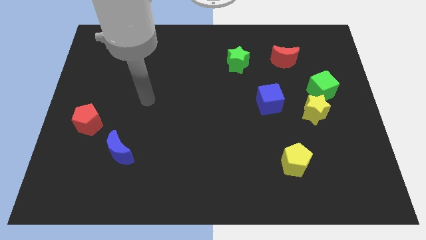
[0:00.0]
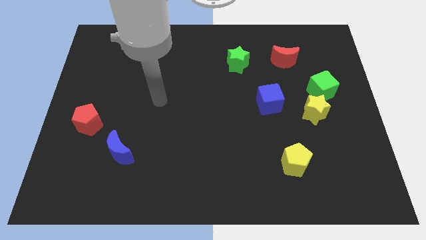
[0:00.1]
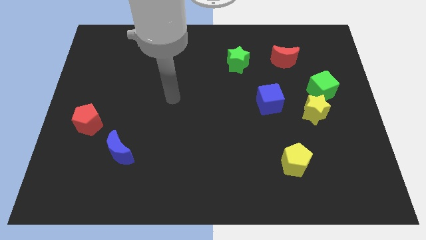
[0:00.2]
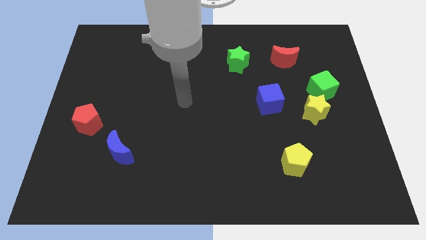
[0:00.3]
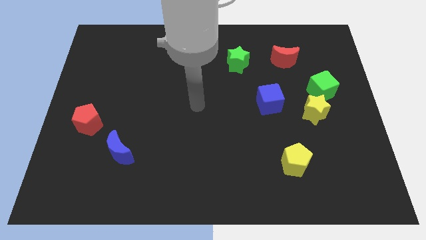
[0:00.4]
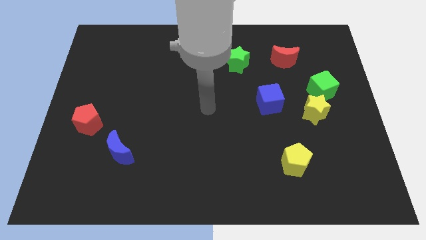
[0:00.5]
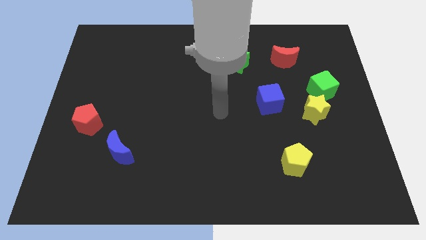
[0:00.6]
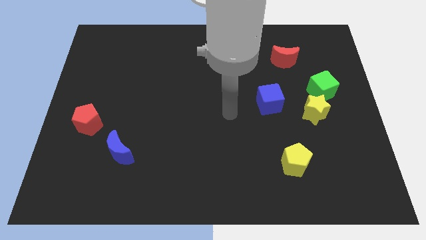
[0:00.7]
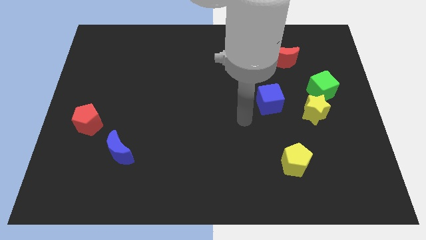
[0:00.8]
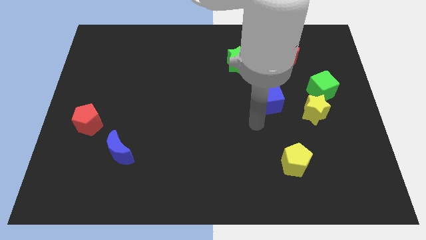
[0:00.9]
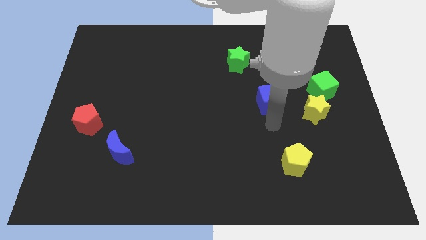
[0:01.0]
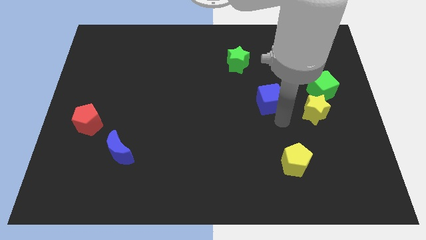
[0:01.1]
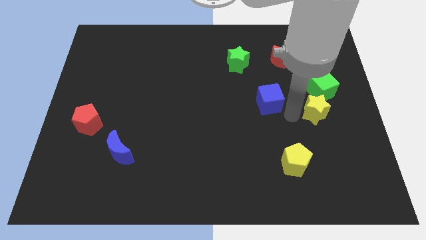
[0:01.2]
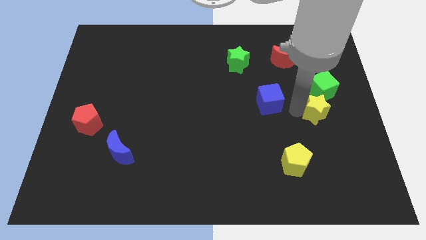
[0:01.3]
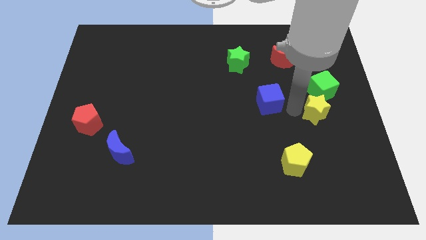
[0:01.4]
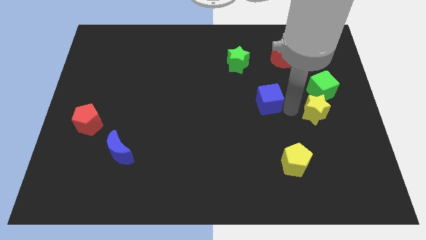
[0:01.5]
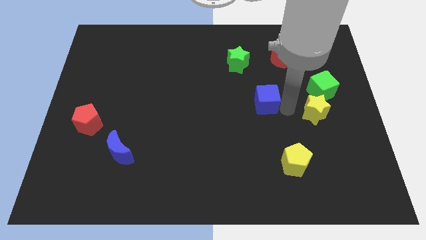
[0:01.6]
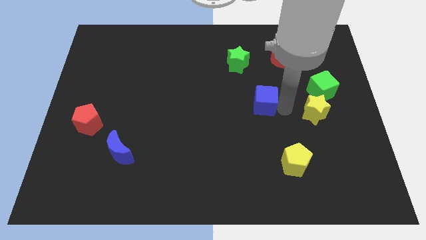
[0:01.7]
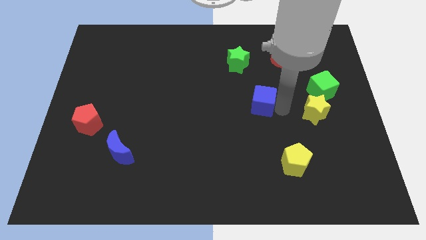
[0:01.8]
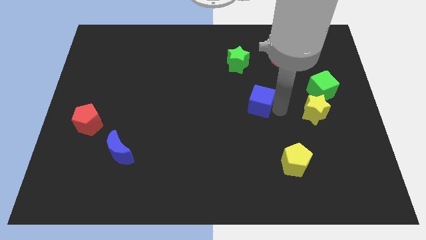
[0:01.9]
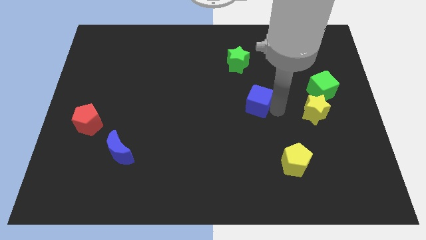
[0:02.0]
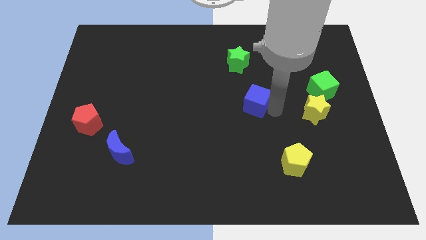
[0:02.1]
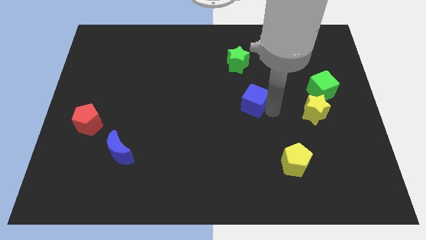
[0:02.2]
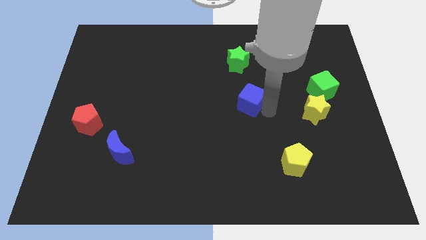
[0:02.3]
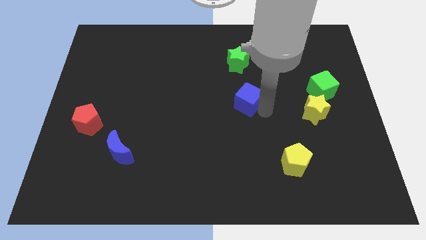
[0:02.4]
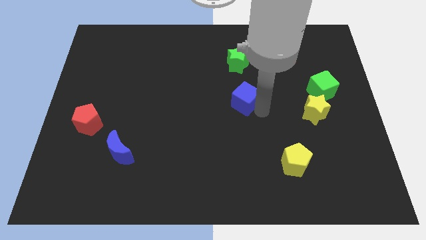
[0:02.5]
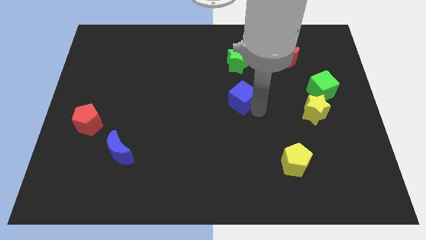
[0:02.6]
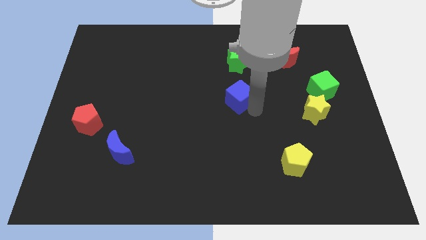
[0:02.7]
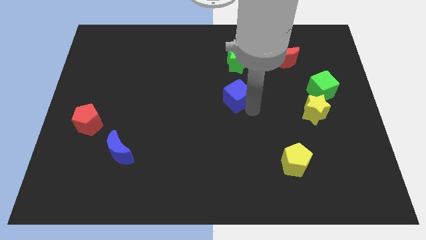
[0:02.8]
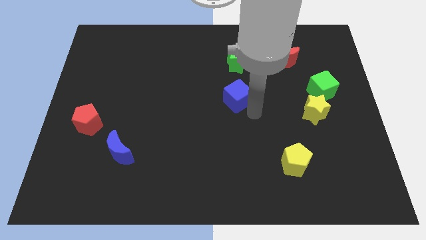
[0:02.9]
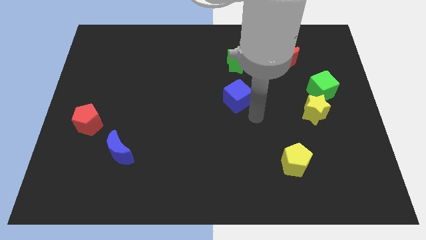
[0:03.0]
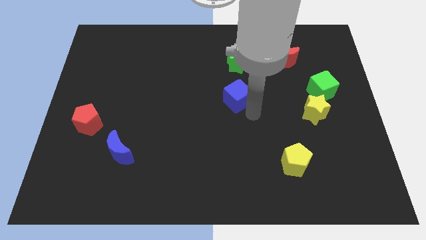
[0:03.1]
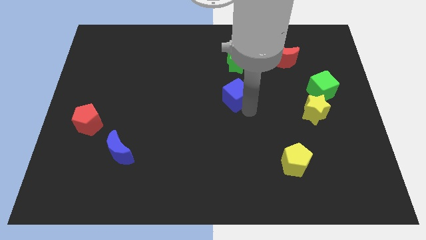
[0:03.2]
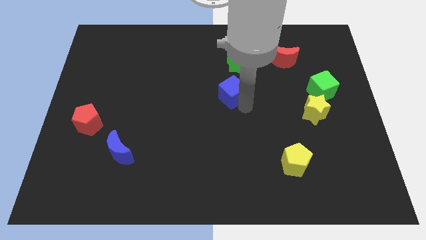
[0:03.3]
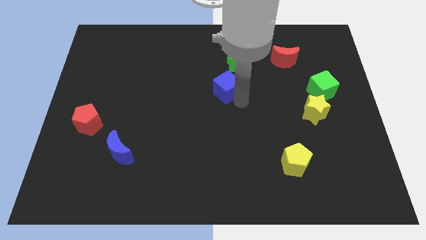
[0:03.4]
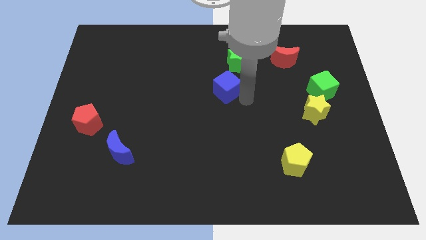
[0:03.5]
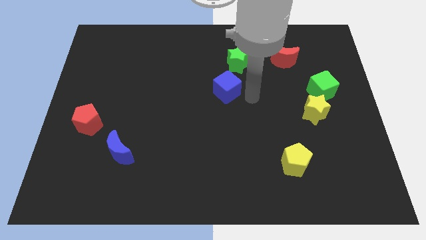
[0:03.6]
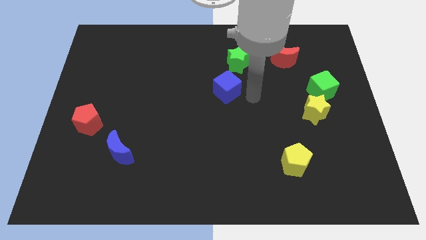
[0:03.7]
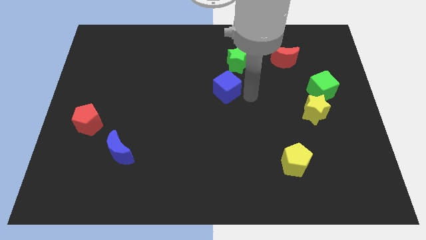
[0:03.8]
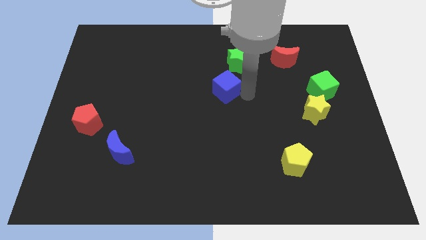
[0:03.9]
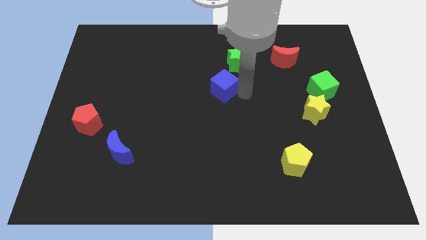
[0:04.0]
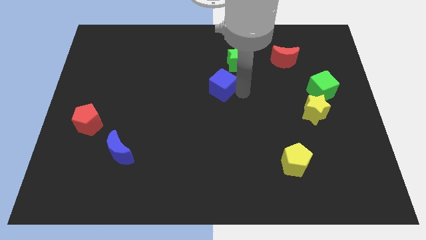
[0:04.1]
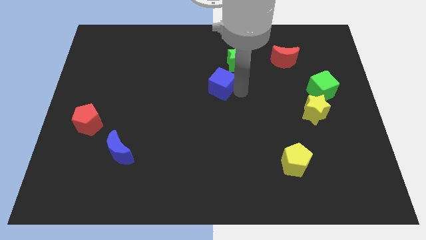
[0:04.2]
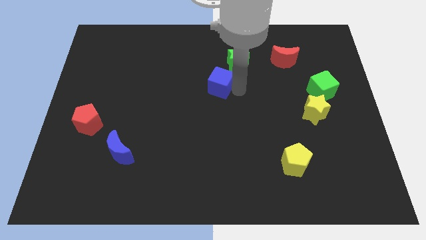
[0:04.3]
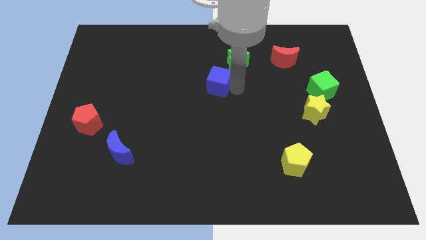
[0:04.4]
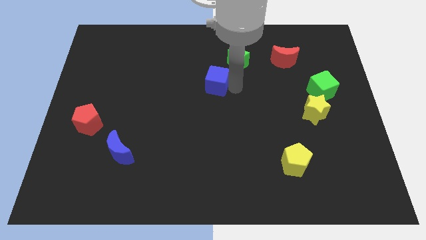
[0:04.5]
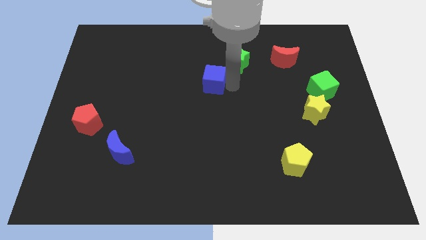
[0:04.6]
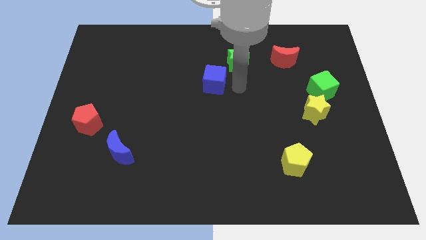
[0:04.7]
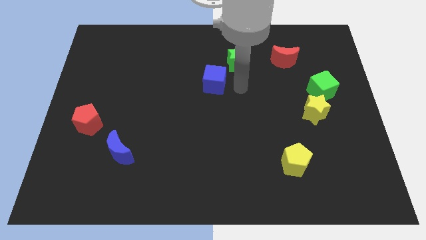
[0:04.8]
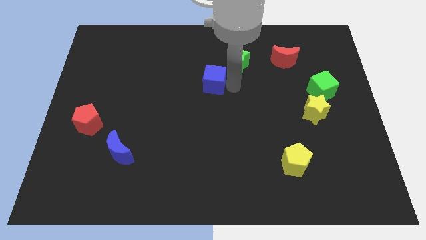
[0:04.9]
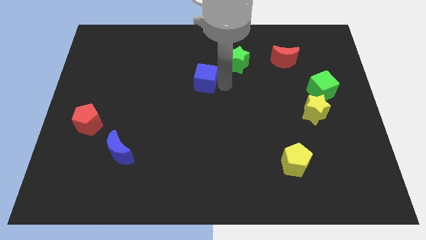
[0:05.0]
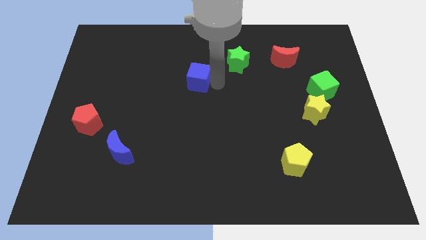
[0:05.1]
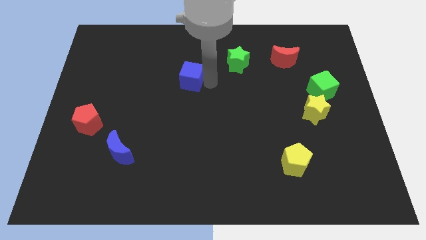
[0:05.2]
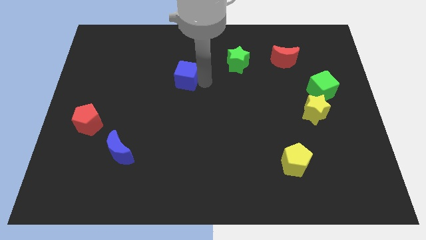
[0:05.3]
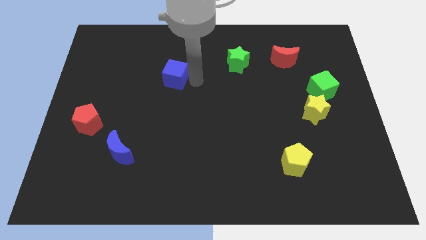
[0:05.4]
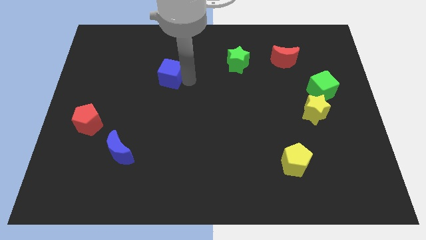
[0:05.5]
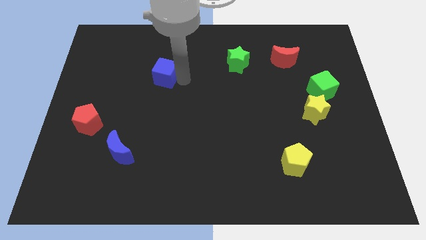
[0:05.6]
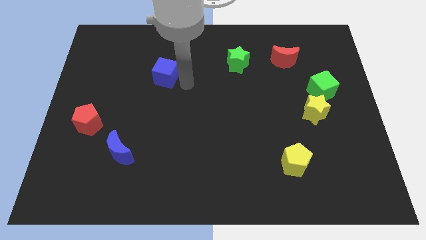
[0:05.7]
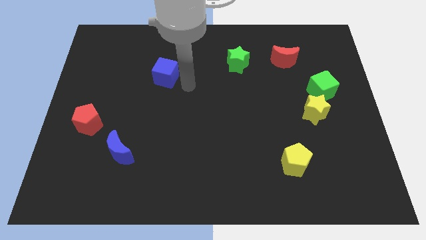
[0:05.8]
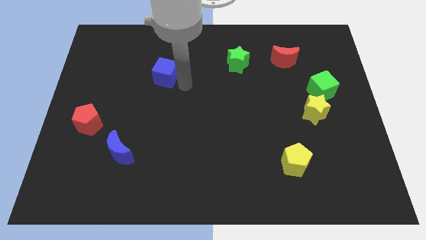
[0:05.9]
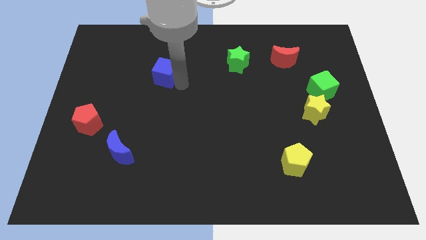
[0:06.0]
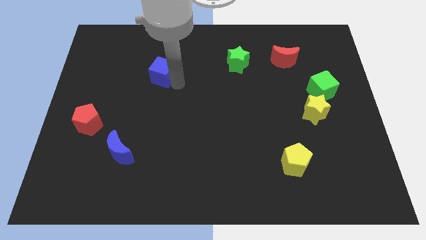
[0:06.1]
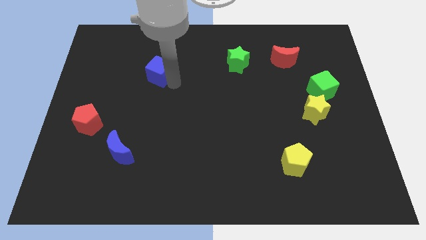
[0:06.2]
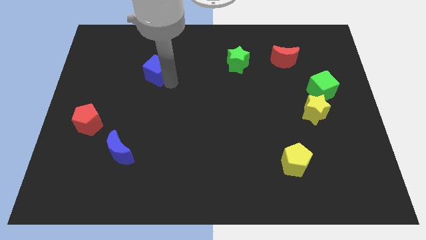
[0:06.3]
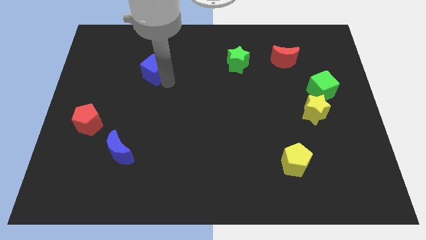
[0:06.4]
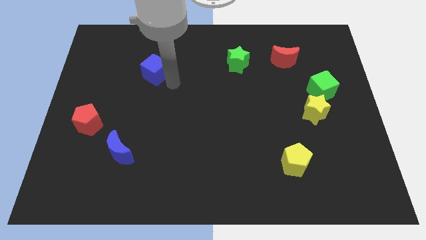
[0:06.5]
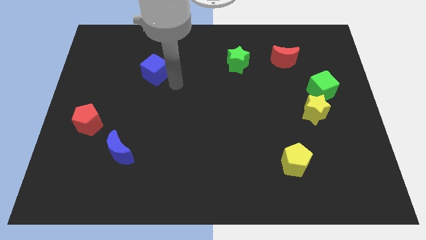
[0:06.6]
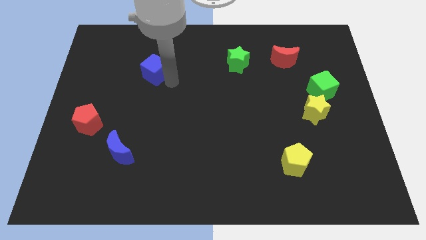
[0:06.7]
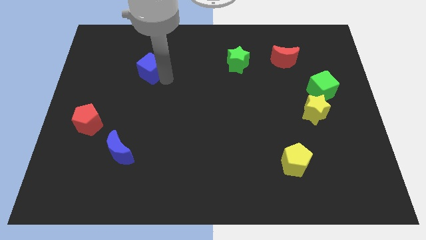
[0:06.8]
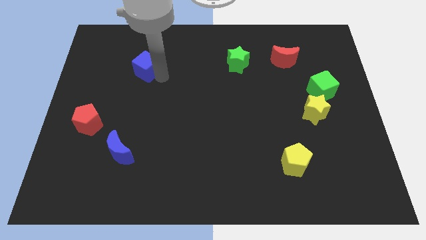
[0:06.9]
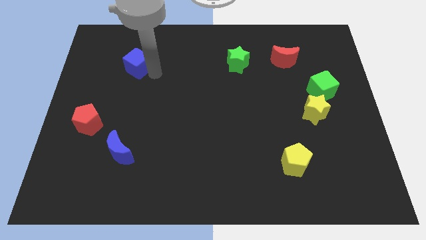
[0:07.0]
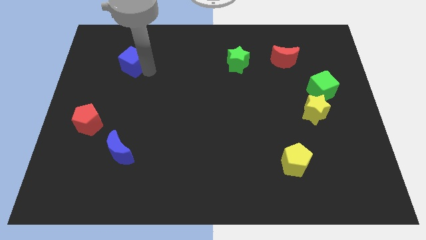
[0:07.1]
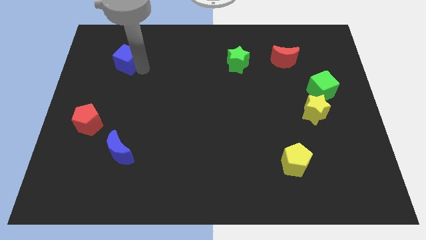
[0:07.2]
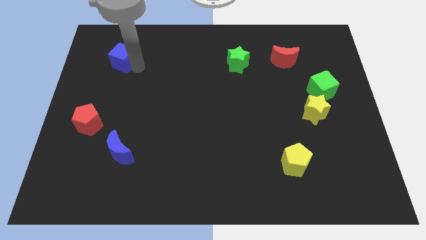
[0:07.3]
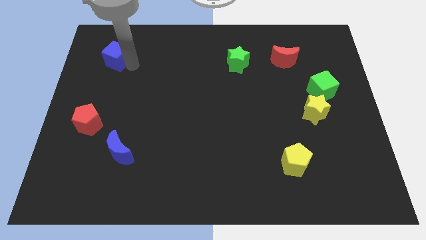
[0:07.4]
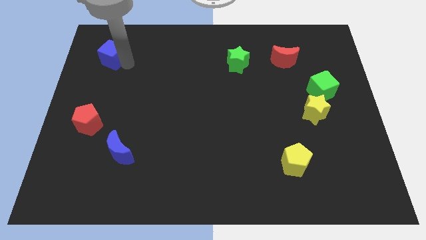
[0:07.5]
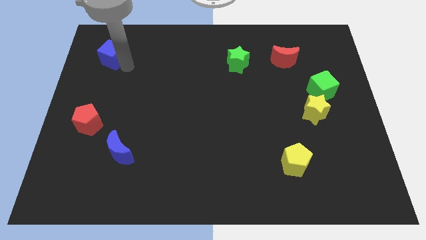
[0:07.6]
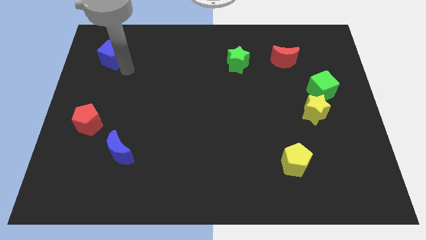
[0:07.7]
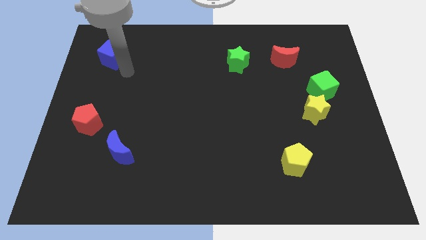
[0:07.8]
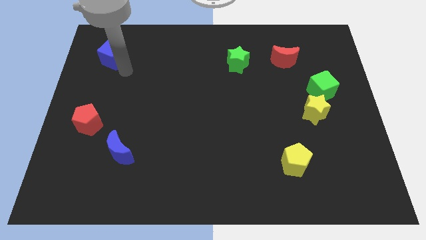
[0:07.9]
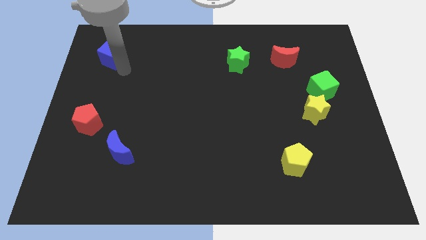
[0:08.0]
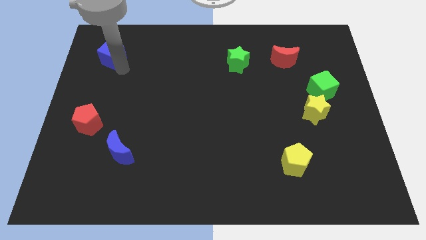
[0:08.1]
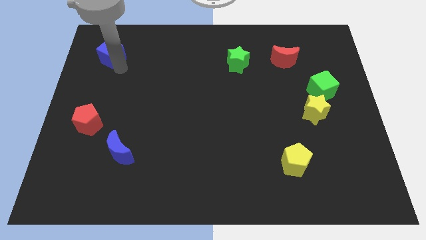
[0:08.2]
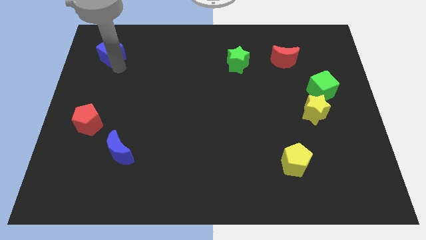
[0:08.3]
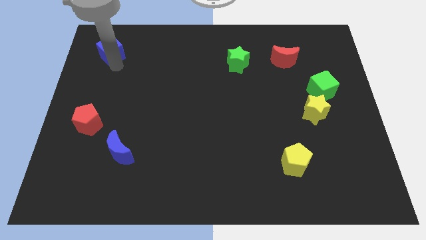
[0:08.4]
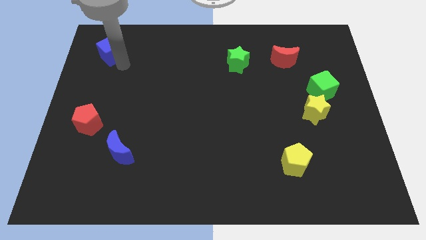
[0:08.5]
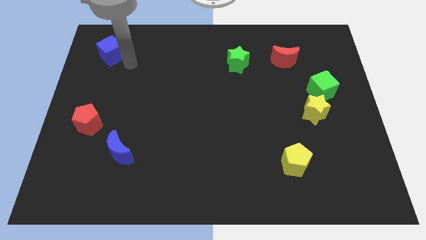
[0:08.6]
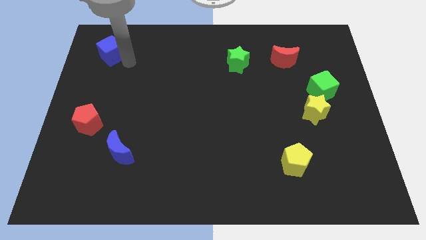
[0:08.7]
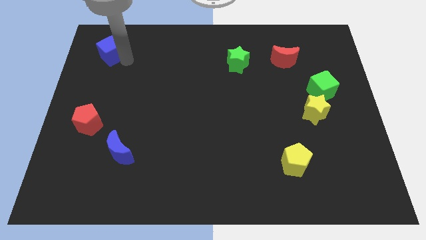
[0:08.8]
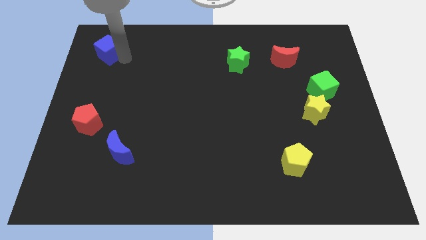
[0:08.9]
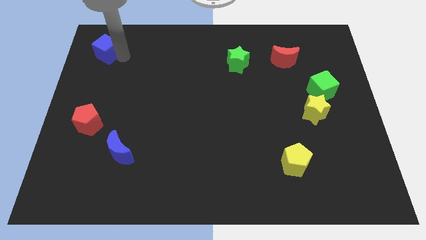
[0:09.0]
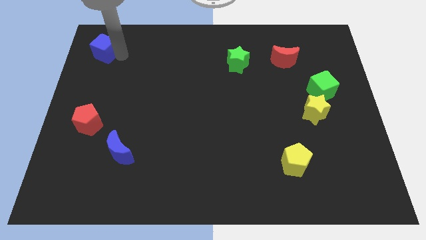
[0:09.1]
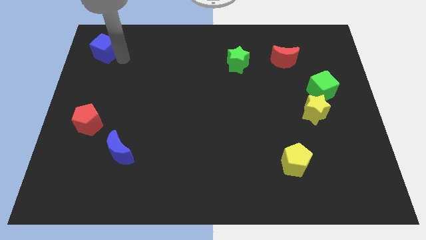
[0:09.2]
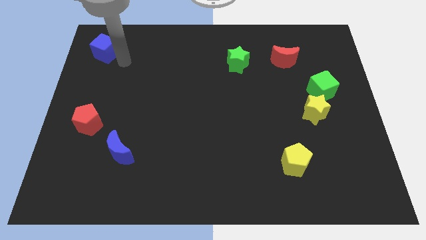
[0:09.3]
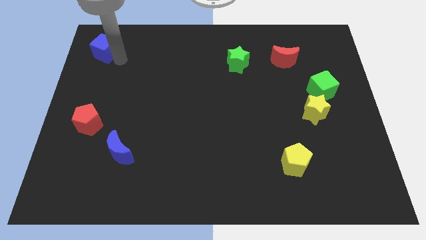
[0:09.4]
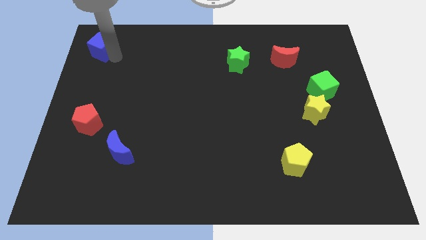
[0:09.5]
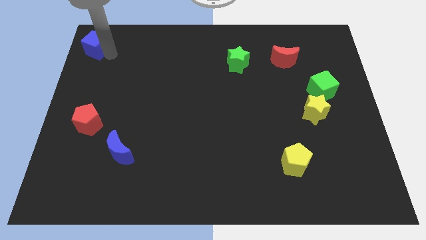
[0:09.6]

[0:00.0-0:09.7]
put the blue cube to the top left
